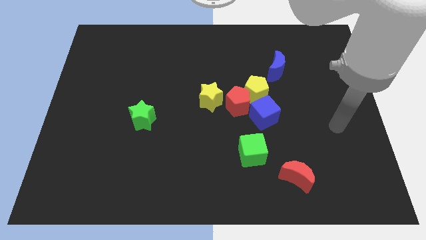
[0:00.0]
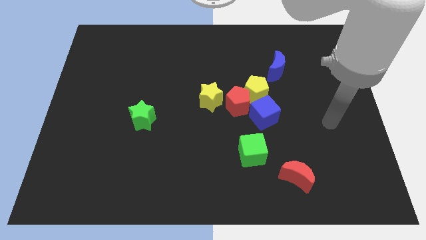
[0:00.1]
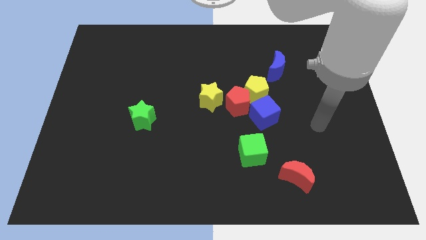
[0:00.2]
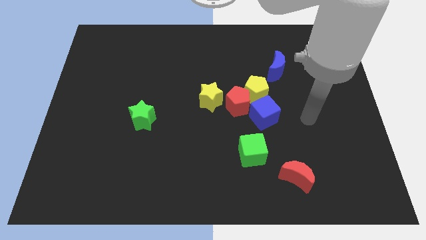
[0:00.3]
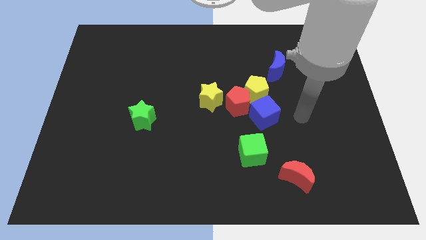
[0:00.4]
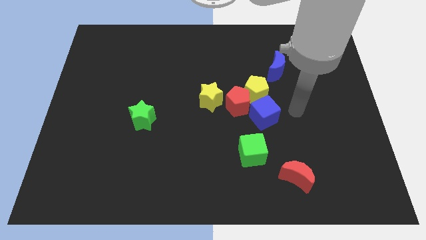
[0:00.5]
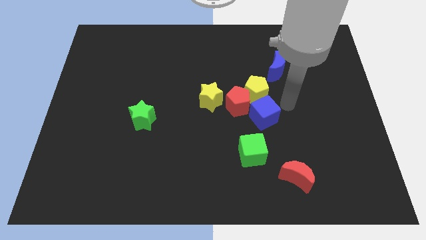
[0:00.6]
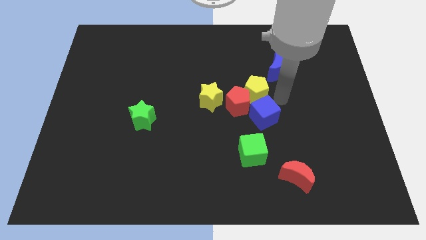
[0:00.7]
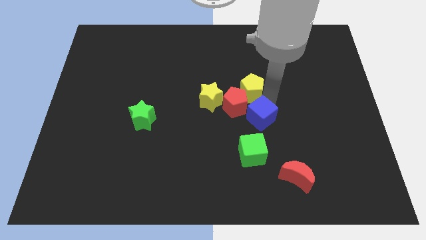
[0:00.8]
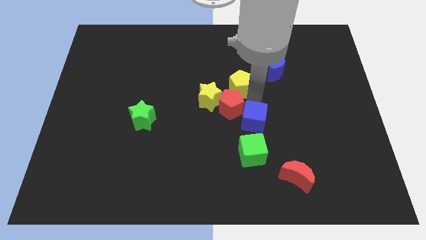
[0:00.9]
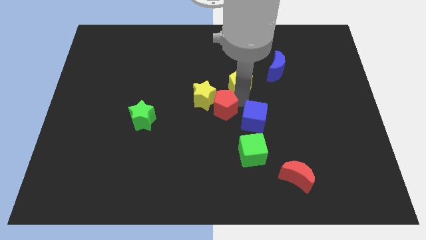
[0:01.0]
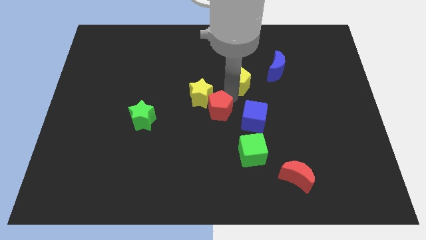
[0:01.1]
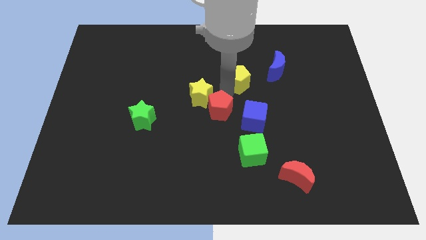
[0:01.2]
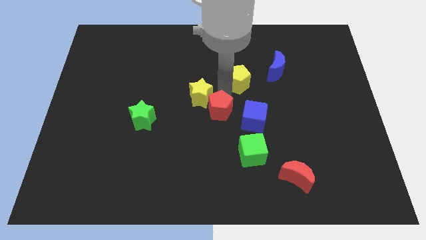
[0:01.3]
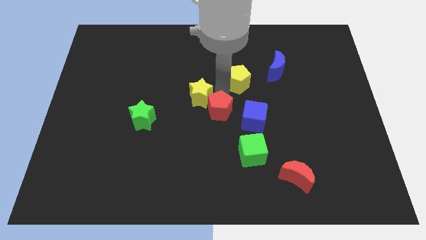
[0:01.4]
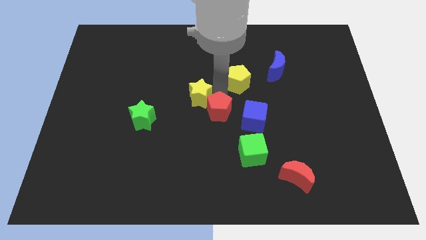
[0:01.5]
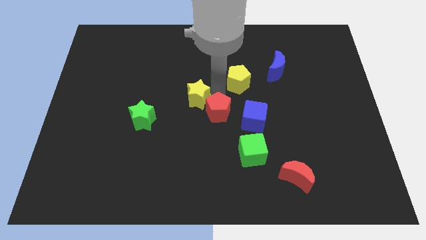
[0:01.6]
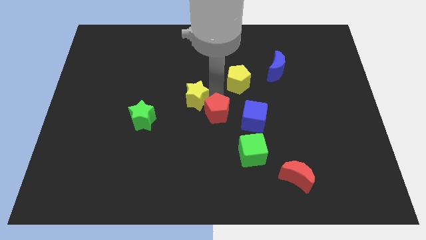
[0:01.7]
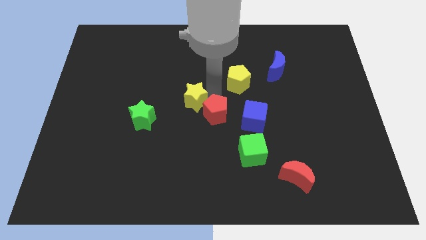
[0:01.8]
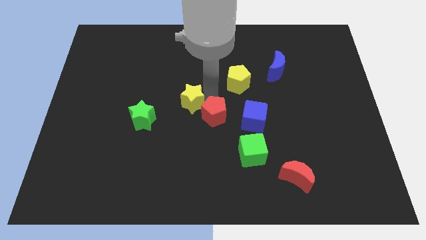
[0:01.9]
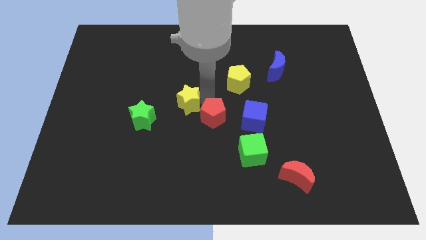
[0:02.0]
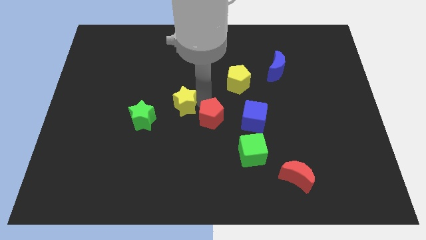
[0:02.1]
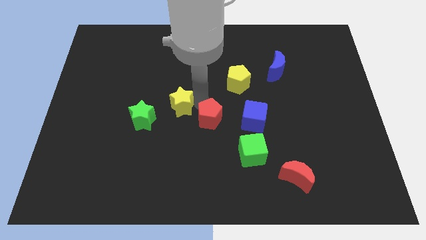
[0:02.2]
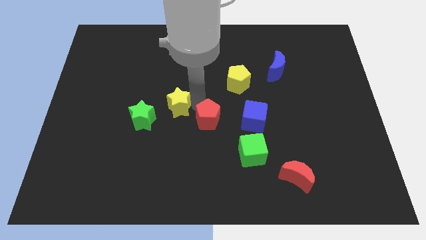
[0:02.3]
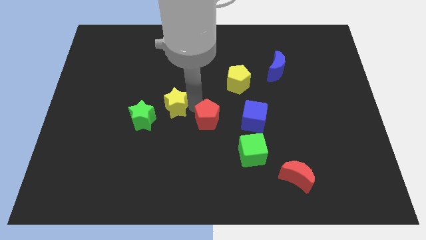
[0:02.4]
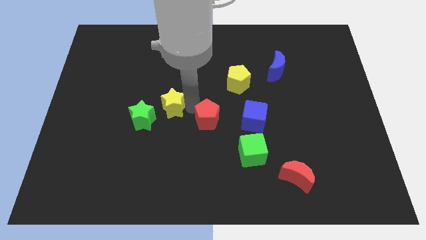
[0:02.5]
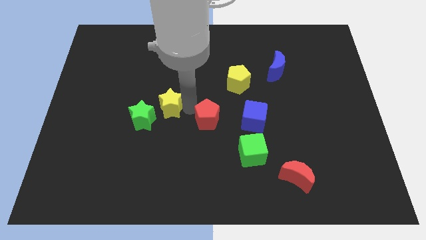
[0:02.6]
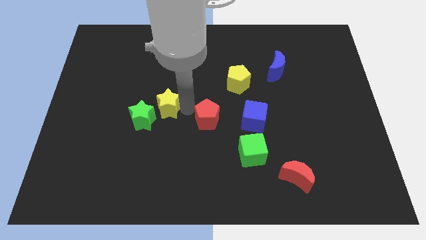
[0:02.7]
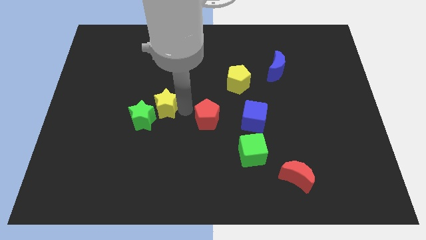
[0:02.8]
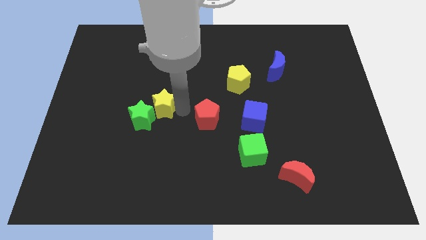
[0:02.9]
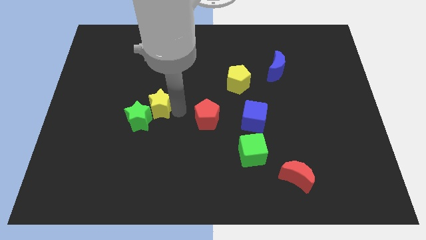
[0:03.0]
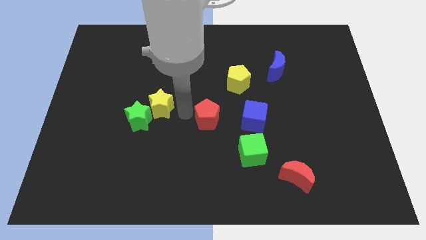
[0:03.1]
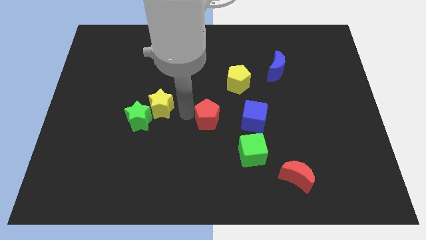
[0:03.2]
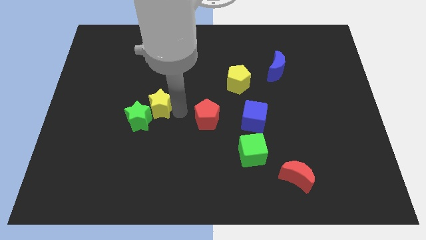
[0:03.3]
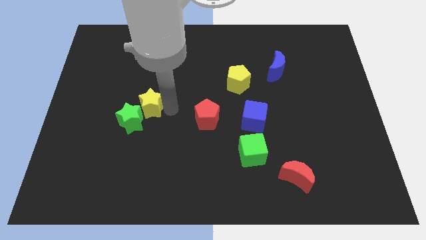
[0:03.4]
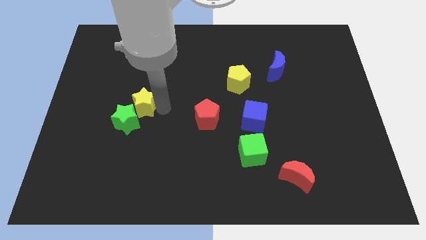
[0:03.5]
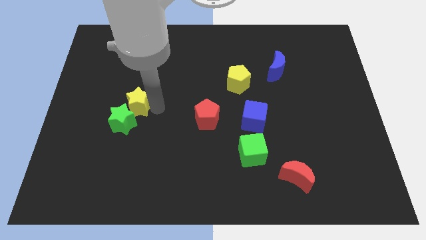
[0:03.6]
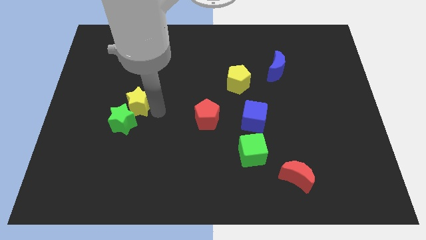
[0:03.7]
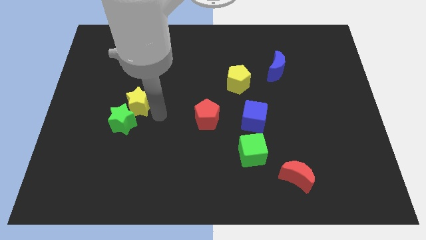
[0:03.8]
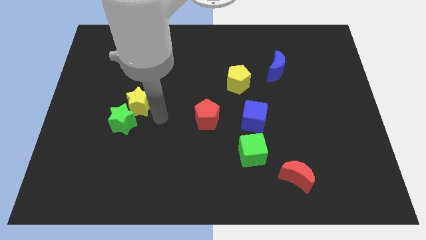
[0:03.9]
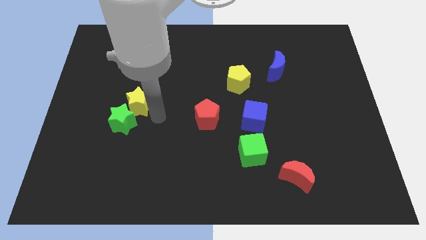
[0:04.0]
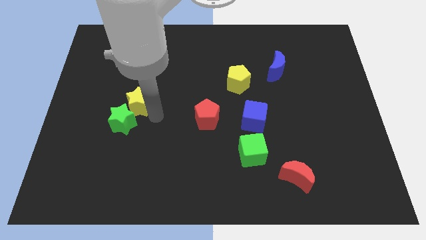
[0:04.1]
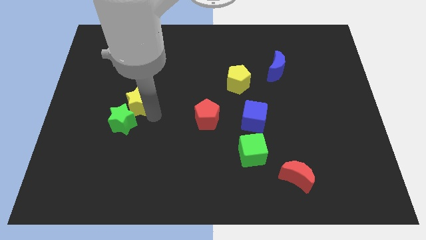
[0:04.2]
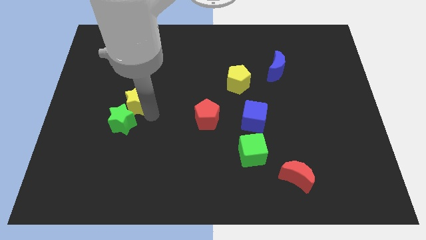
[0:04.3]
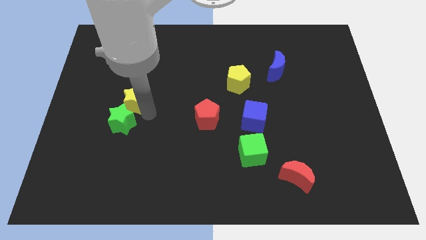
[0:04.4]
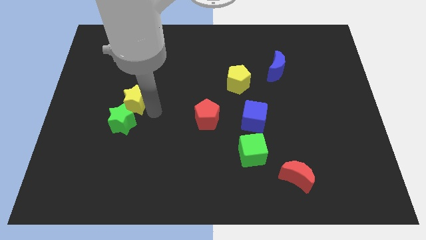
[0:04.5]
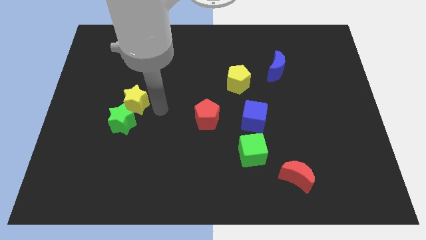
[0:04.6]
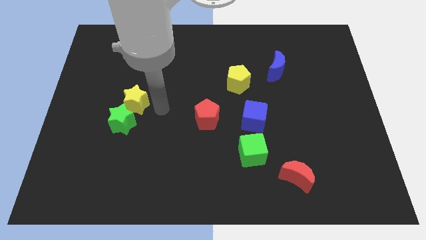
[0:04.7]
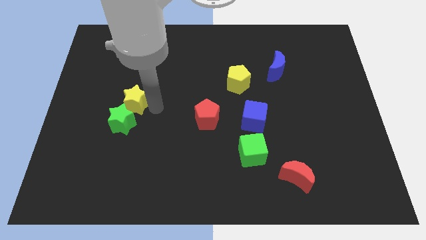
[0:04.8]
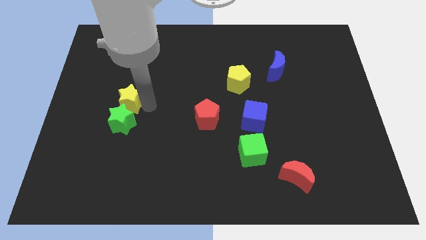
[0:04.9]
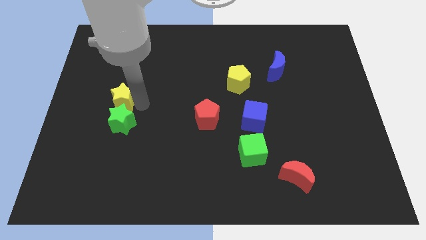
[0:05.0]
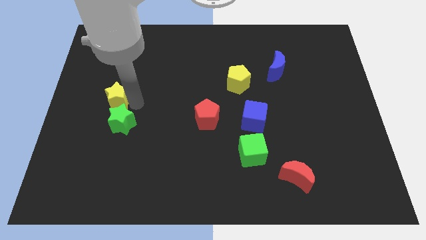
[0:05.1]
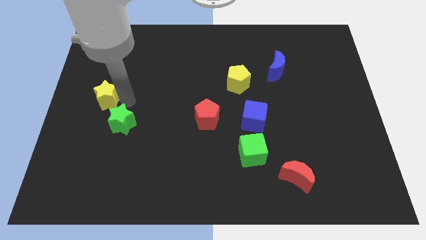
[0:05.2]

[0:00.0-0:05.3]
put the yellow star to the left side of the board

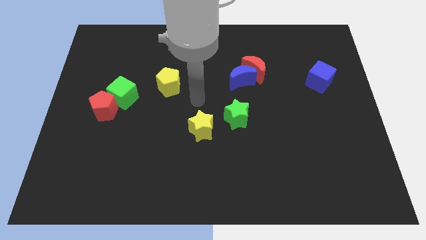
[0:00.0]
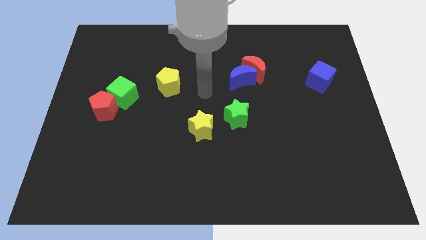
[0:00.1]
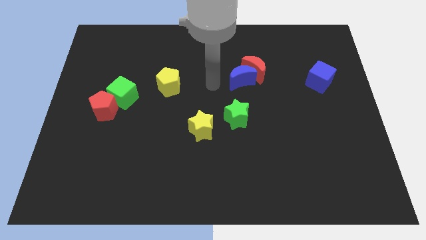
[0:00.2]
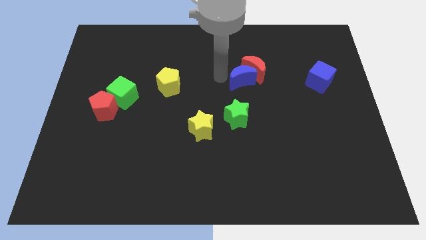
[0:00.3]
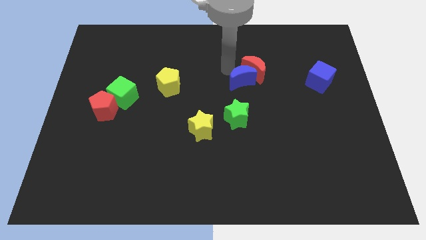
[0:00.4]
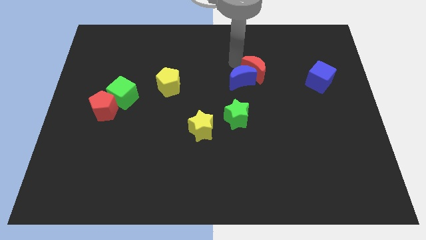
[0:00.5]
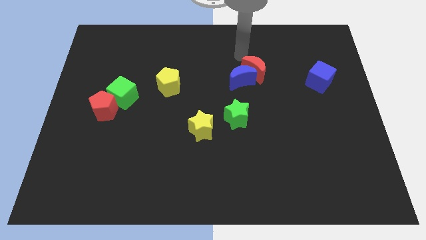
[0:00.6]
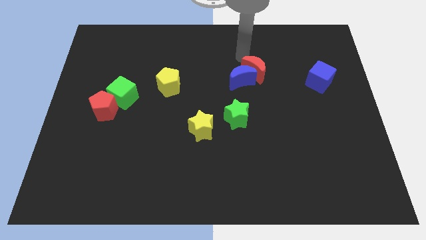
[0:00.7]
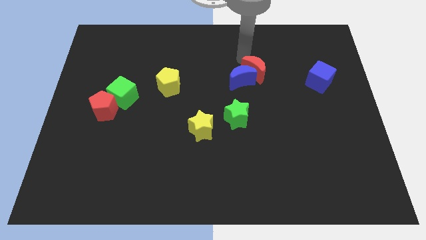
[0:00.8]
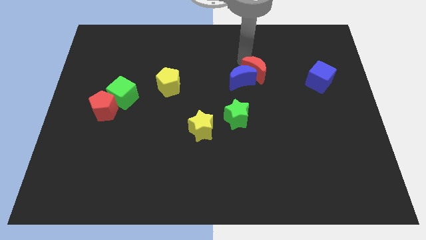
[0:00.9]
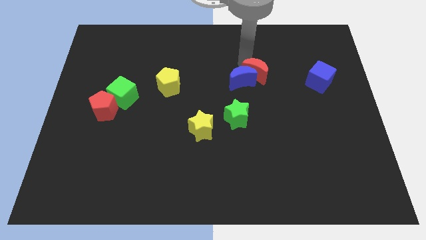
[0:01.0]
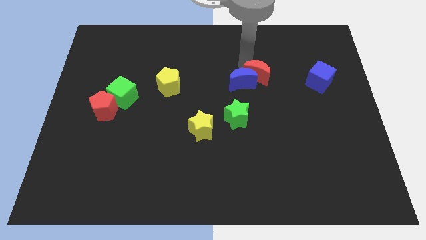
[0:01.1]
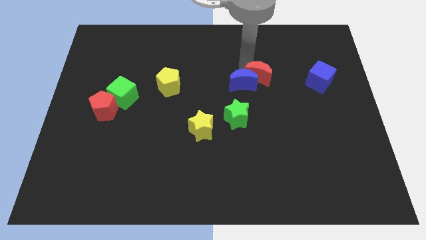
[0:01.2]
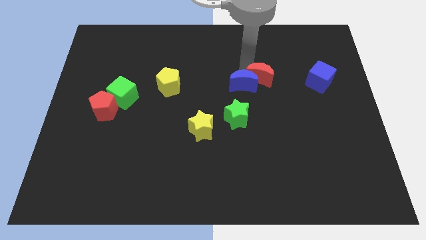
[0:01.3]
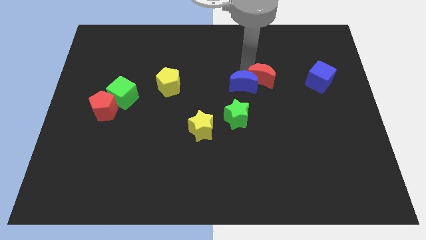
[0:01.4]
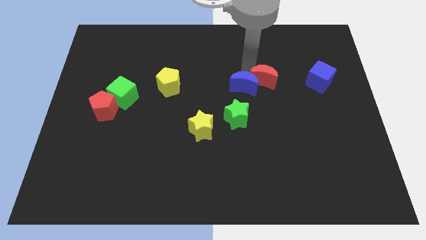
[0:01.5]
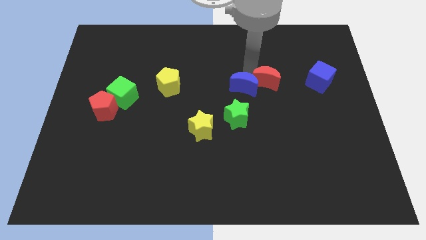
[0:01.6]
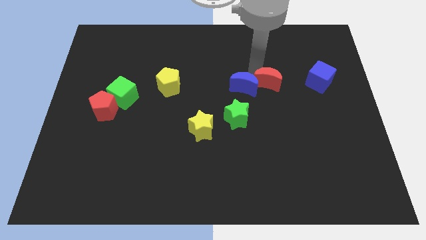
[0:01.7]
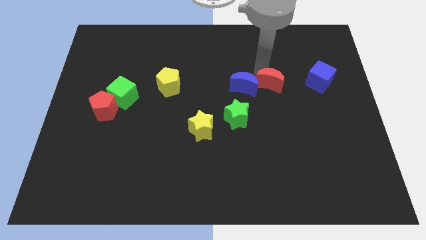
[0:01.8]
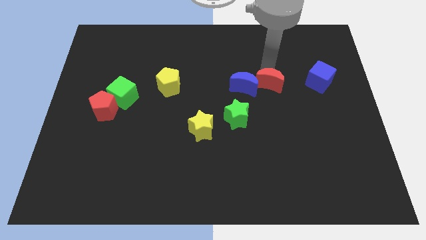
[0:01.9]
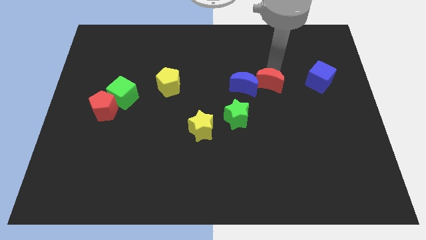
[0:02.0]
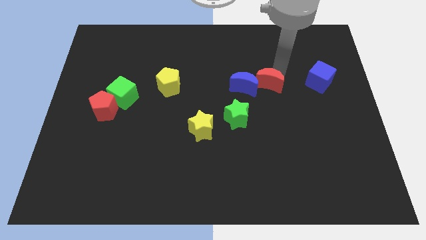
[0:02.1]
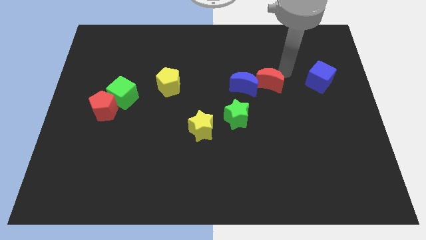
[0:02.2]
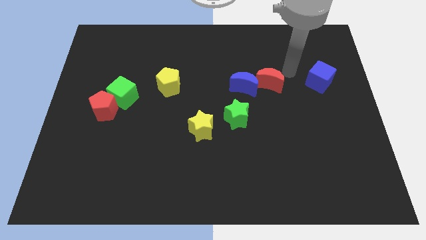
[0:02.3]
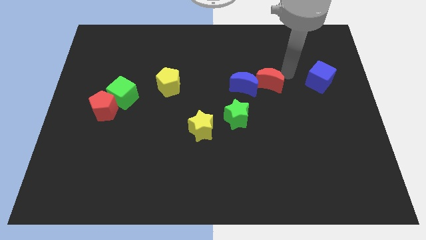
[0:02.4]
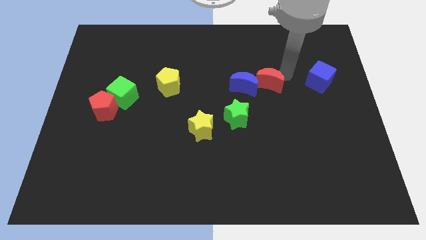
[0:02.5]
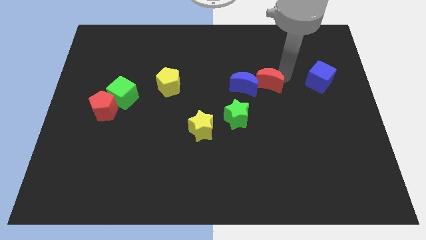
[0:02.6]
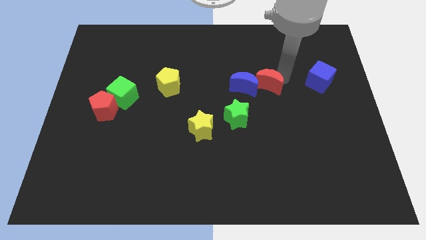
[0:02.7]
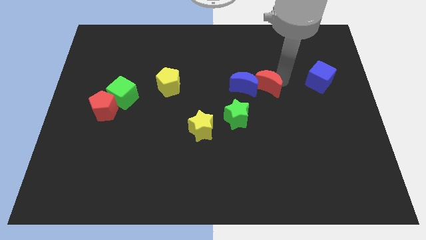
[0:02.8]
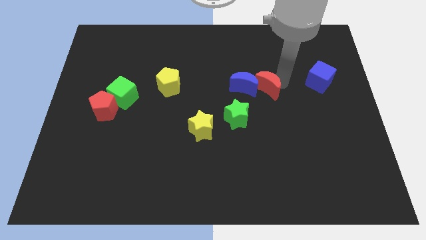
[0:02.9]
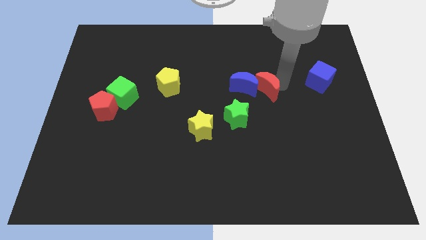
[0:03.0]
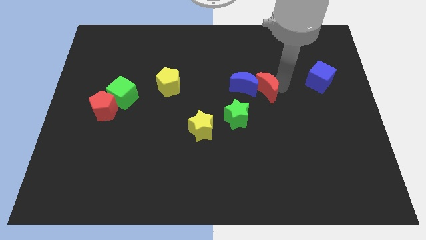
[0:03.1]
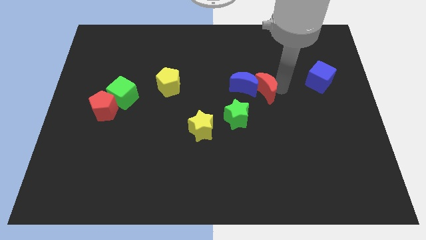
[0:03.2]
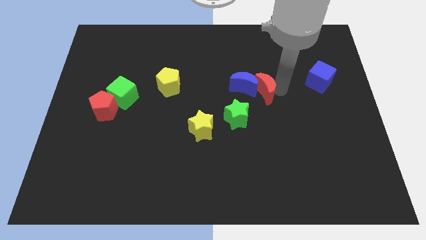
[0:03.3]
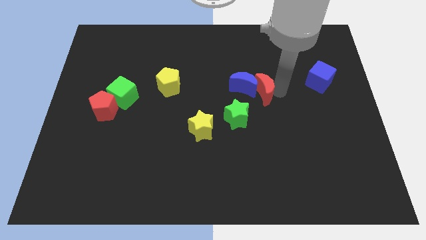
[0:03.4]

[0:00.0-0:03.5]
move the red moon to the center
